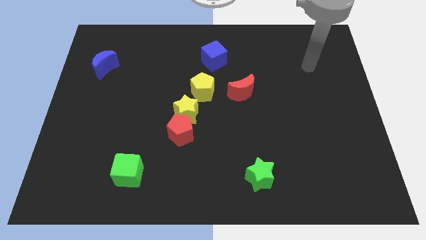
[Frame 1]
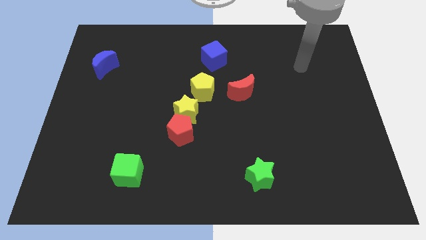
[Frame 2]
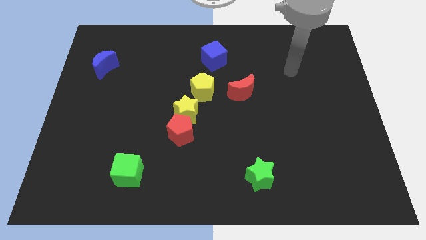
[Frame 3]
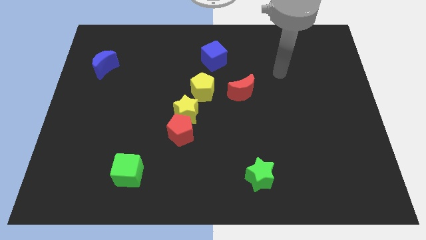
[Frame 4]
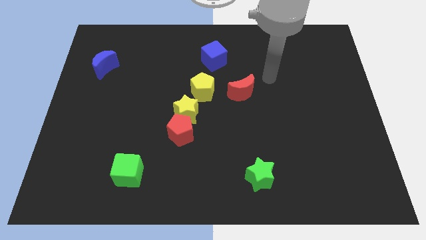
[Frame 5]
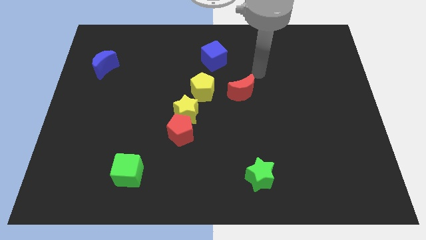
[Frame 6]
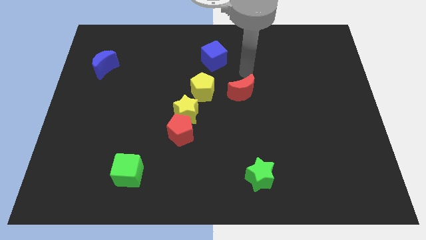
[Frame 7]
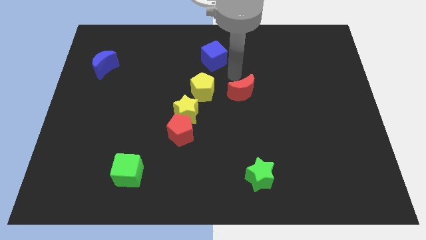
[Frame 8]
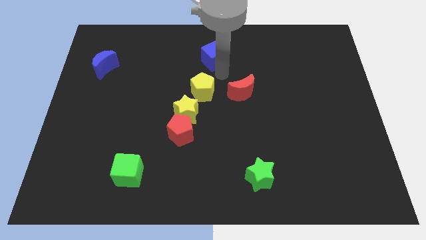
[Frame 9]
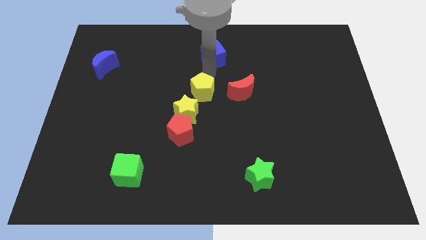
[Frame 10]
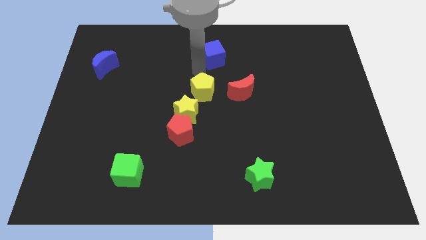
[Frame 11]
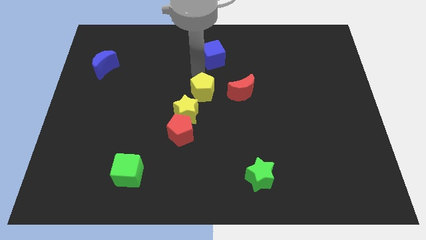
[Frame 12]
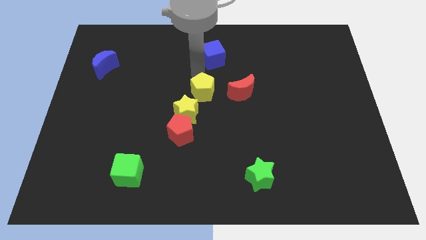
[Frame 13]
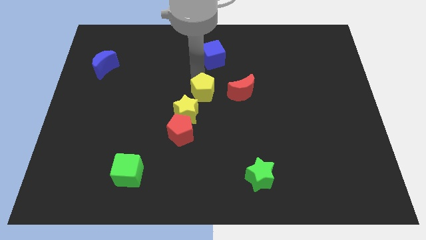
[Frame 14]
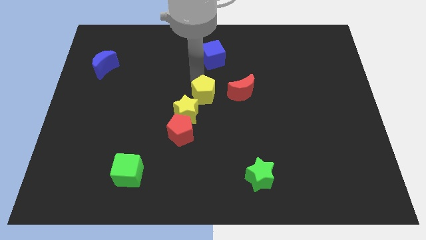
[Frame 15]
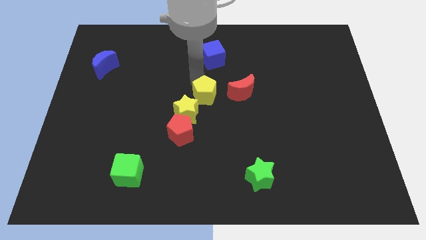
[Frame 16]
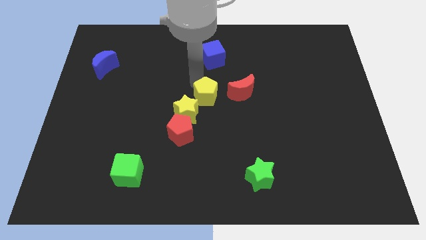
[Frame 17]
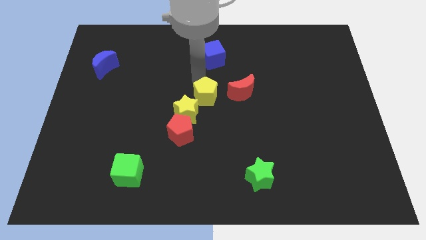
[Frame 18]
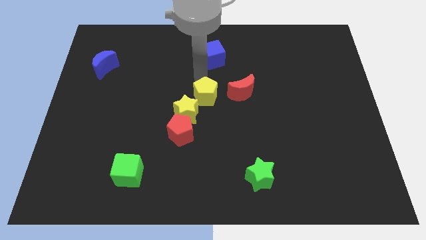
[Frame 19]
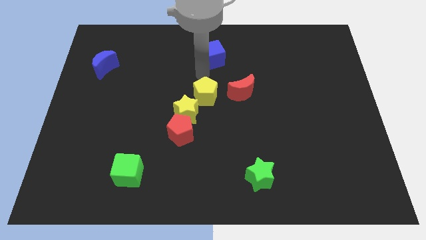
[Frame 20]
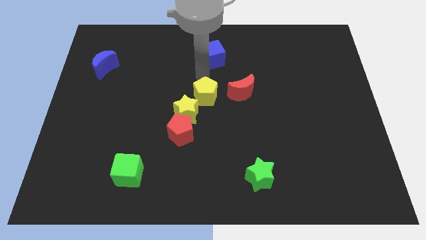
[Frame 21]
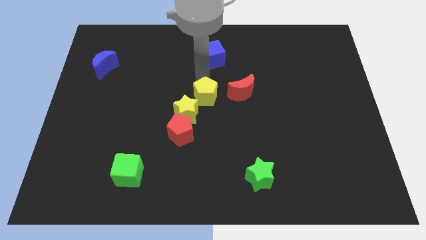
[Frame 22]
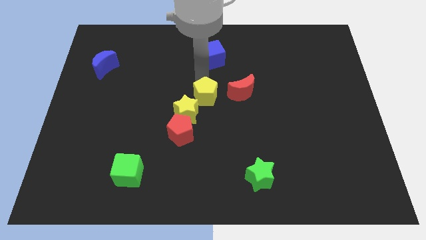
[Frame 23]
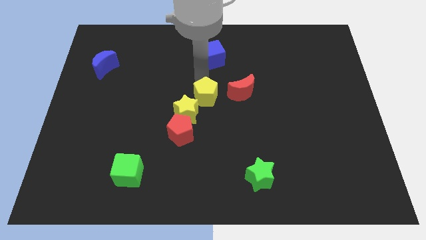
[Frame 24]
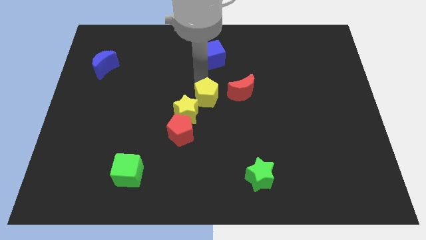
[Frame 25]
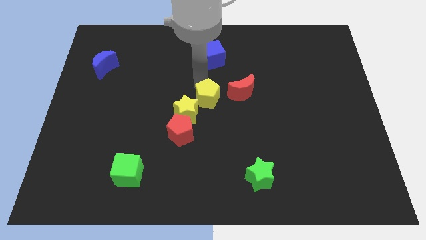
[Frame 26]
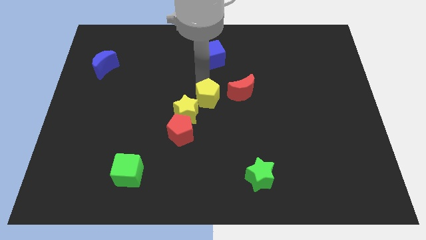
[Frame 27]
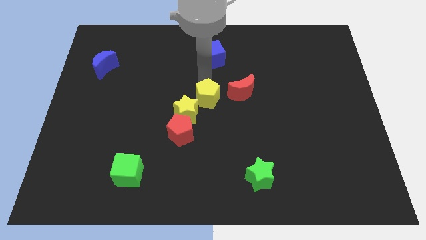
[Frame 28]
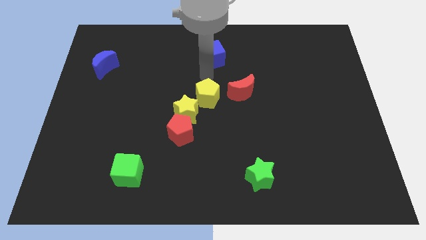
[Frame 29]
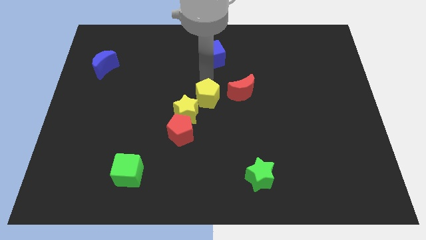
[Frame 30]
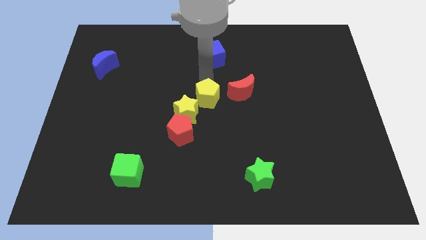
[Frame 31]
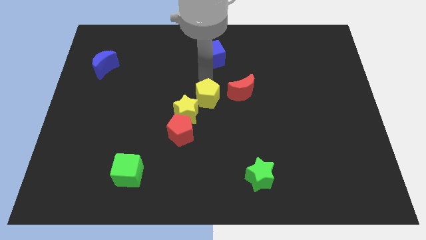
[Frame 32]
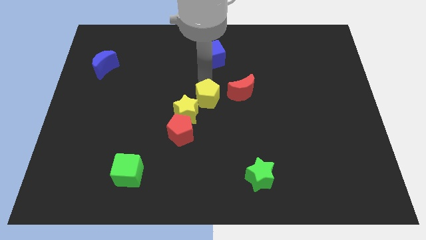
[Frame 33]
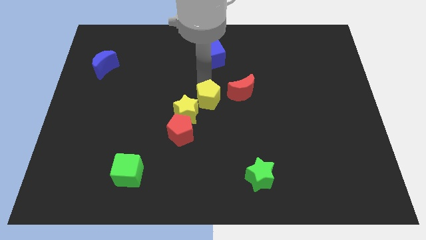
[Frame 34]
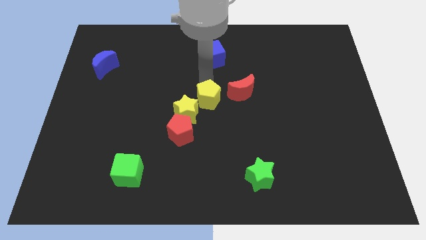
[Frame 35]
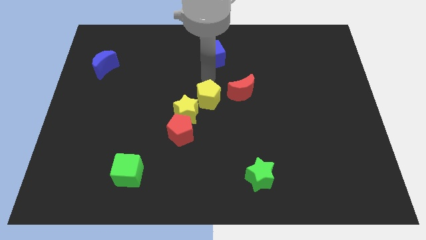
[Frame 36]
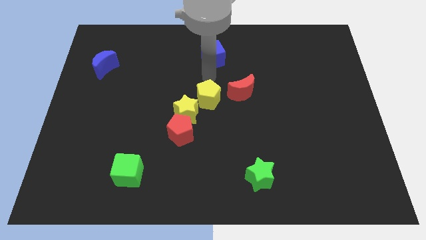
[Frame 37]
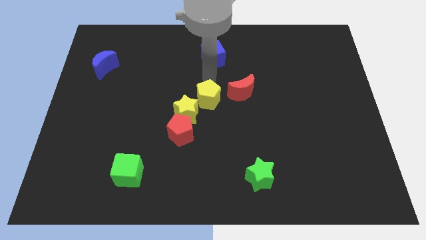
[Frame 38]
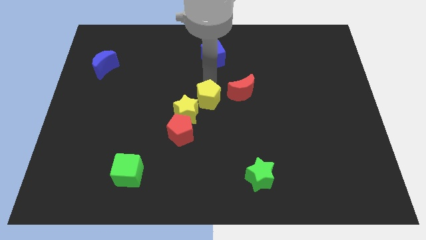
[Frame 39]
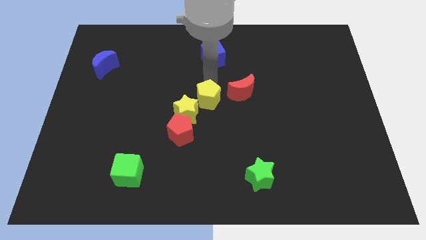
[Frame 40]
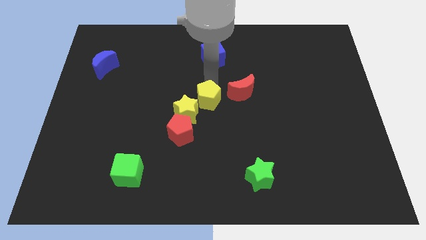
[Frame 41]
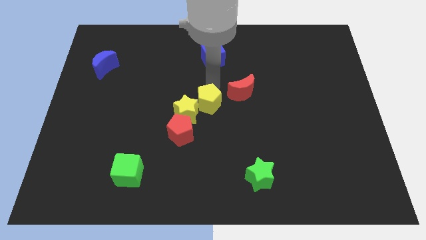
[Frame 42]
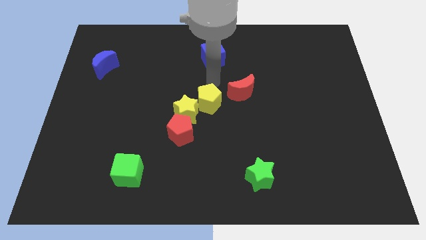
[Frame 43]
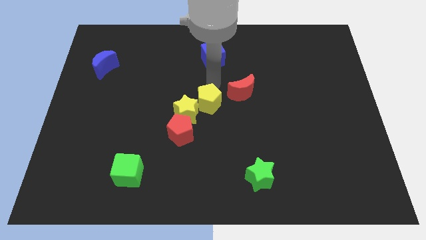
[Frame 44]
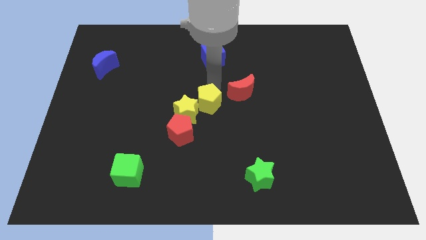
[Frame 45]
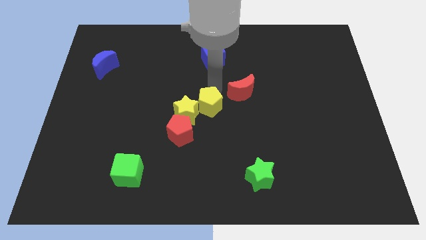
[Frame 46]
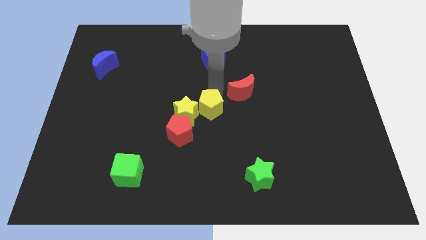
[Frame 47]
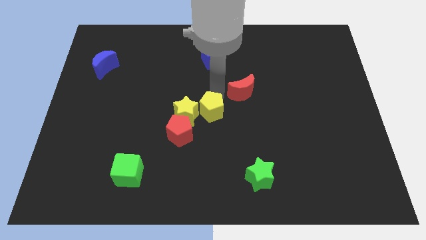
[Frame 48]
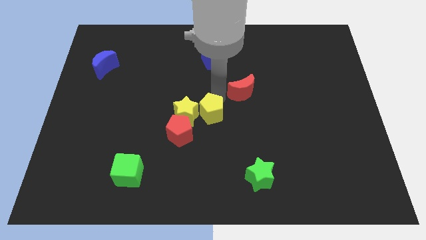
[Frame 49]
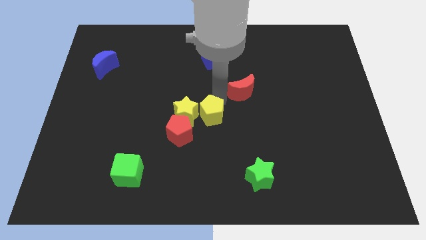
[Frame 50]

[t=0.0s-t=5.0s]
slide the yellow pentagon a bit down

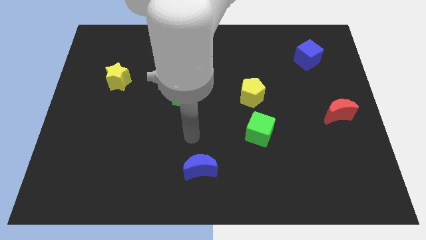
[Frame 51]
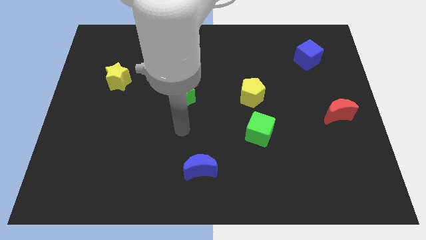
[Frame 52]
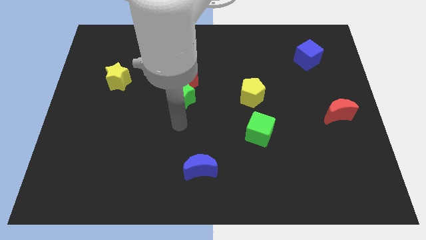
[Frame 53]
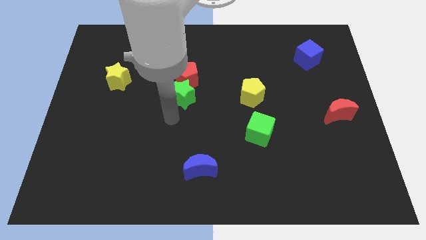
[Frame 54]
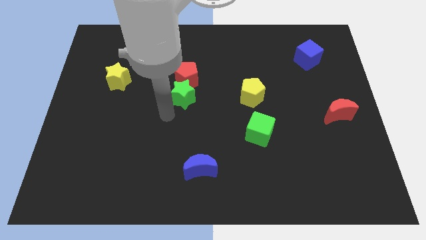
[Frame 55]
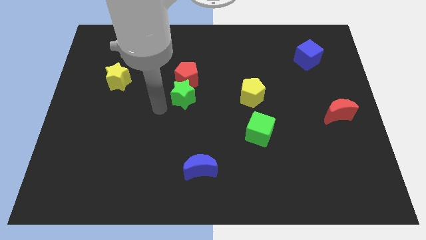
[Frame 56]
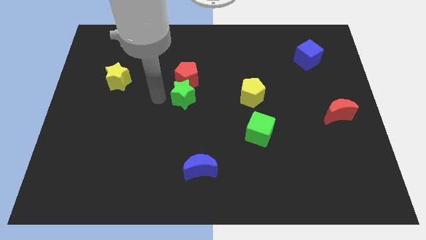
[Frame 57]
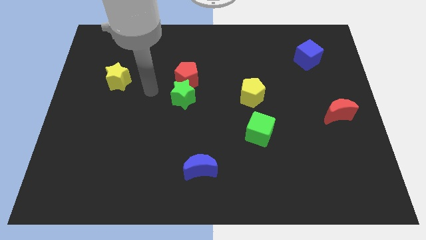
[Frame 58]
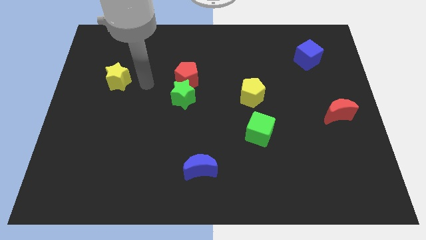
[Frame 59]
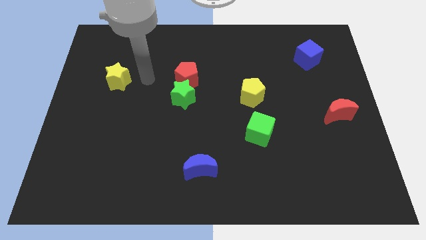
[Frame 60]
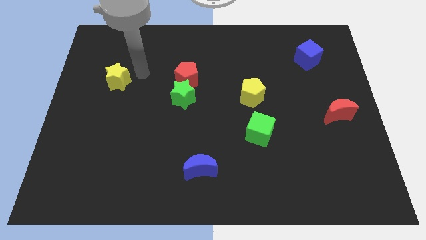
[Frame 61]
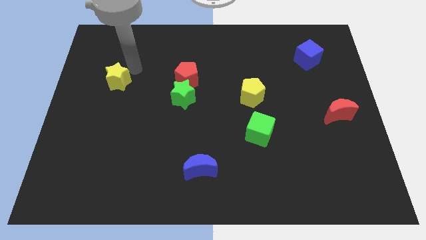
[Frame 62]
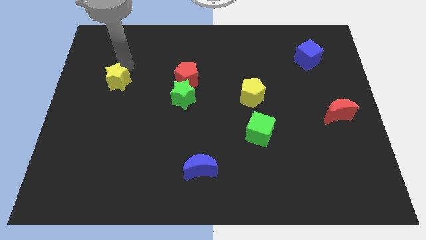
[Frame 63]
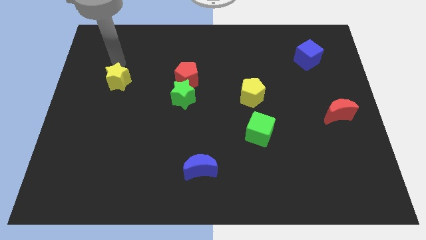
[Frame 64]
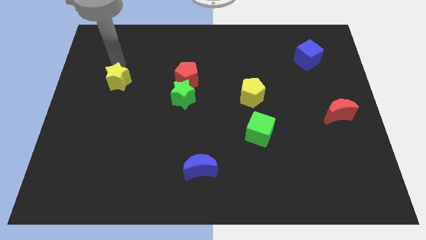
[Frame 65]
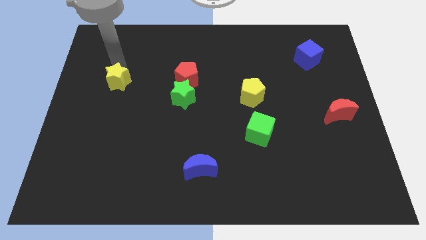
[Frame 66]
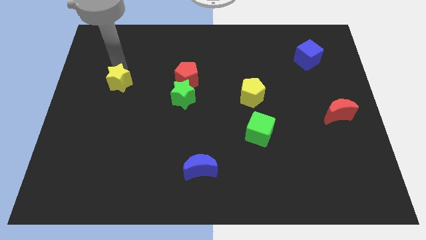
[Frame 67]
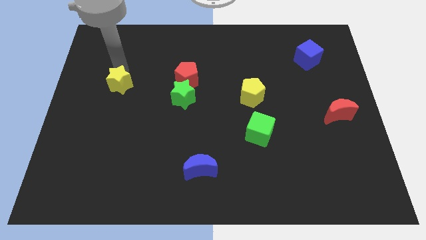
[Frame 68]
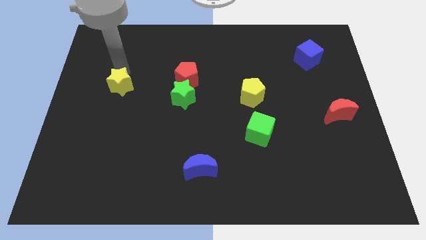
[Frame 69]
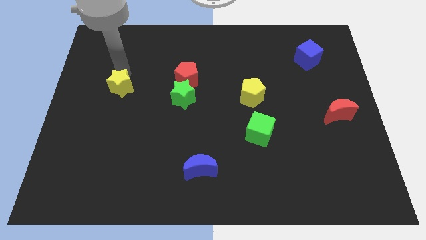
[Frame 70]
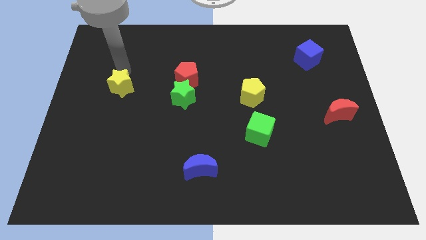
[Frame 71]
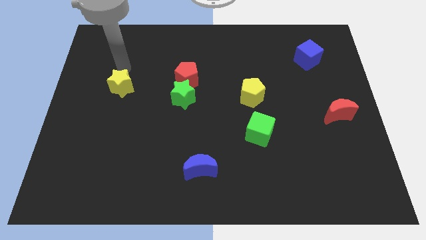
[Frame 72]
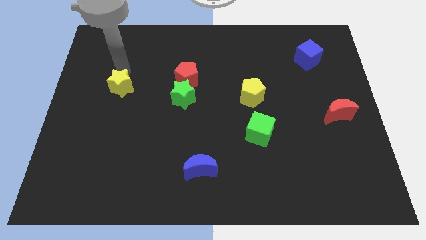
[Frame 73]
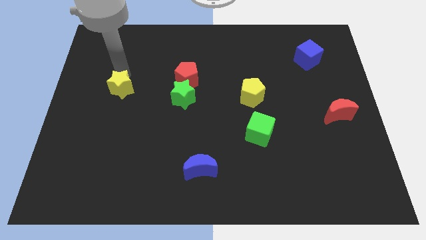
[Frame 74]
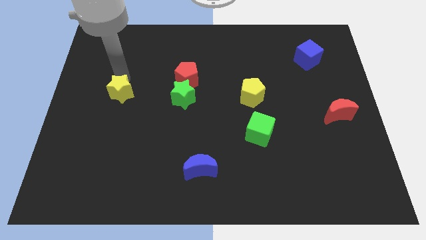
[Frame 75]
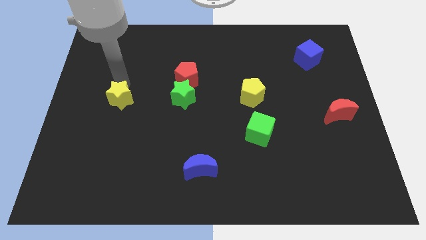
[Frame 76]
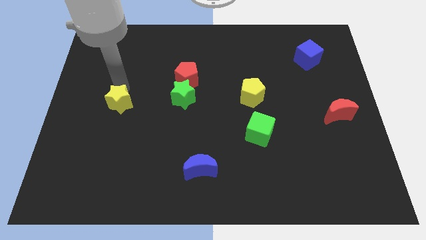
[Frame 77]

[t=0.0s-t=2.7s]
move the yellow star slightly down

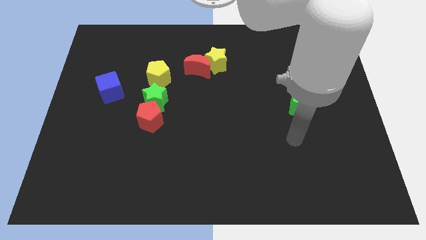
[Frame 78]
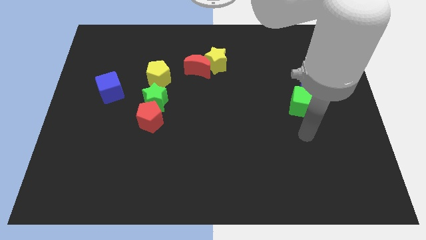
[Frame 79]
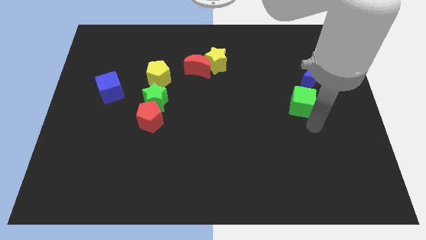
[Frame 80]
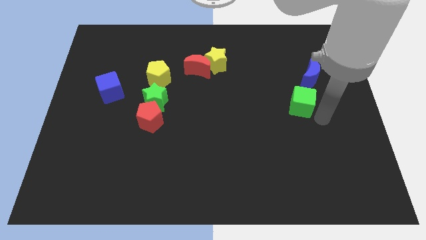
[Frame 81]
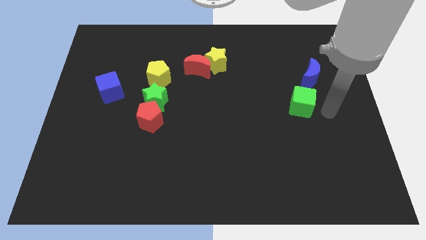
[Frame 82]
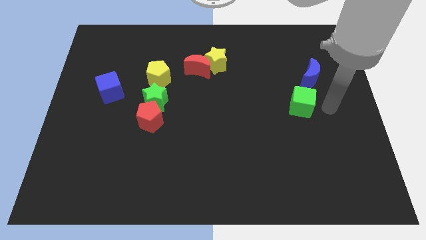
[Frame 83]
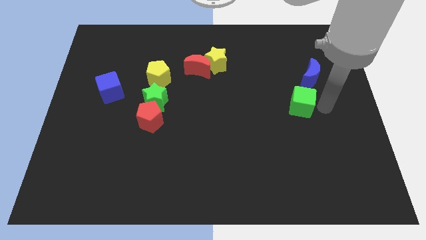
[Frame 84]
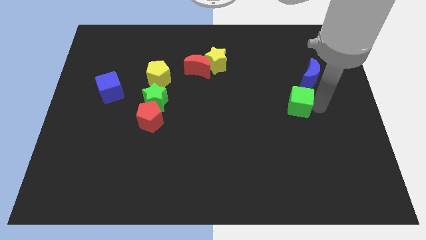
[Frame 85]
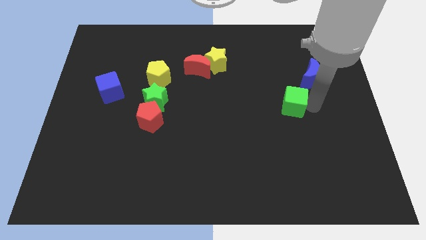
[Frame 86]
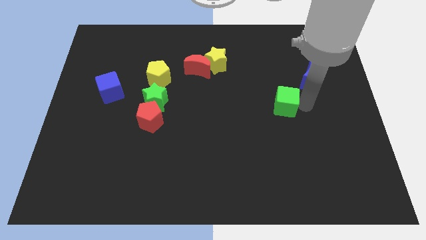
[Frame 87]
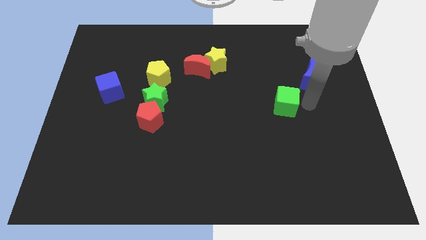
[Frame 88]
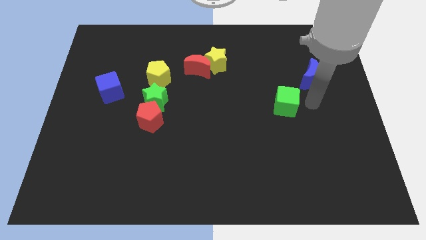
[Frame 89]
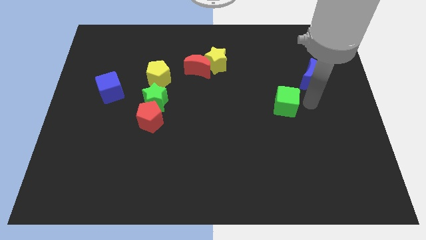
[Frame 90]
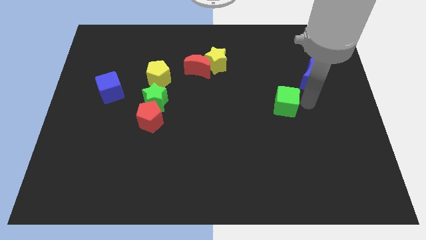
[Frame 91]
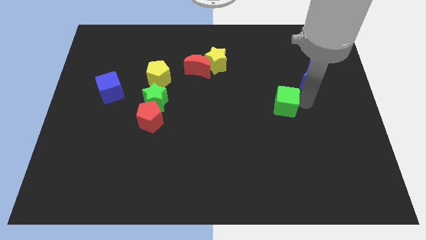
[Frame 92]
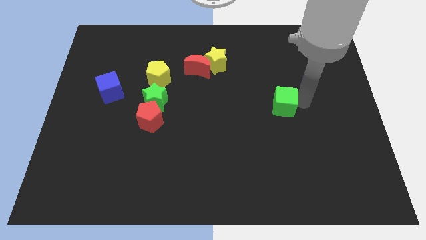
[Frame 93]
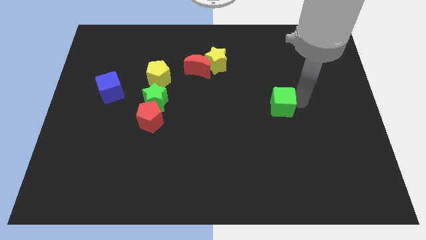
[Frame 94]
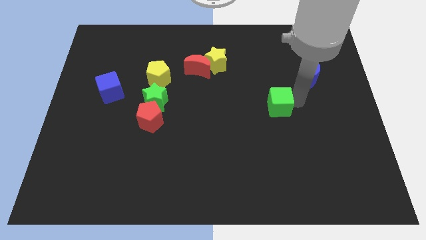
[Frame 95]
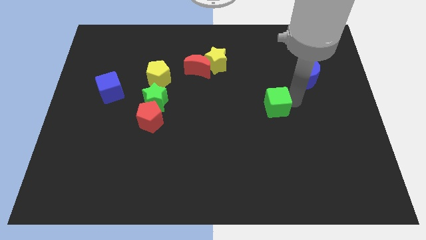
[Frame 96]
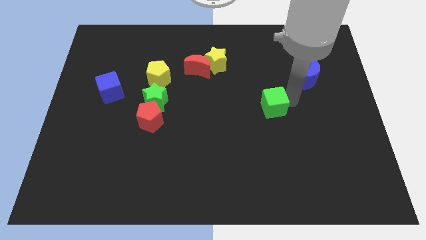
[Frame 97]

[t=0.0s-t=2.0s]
push the green cube somewhat left
